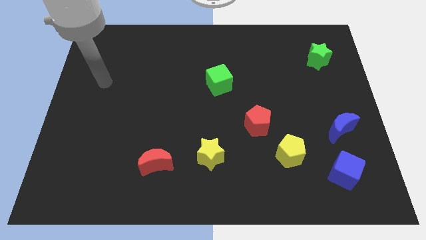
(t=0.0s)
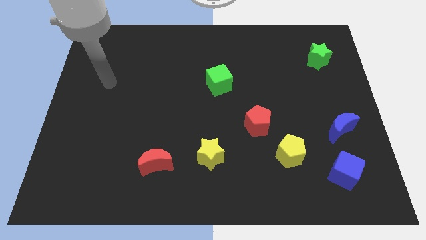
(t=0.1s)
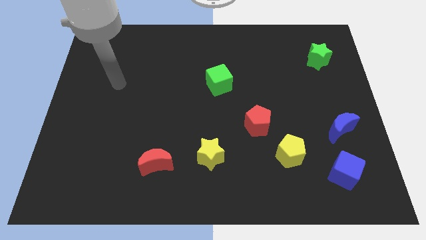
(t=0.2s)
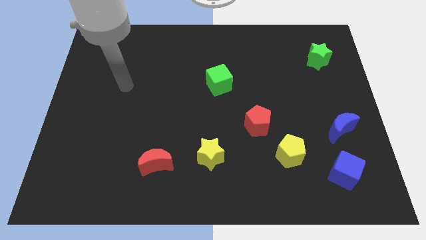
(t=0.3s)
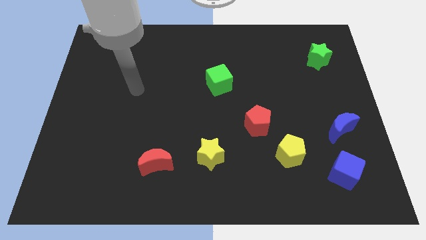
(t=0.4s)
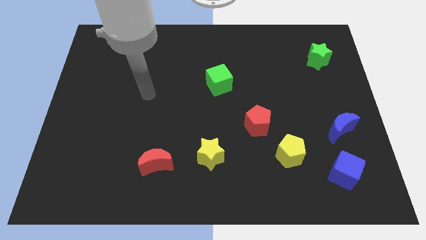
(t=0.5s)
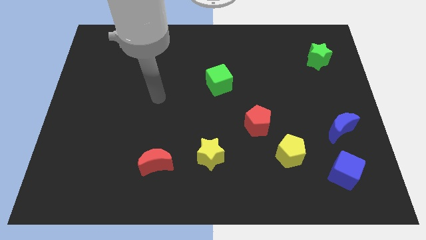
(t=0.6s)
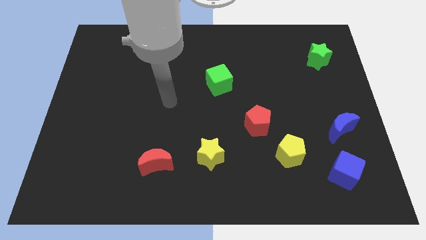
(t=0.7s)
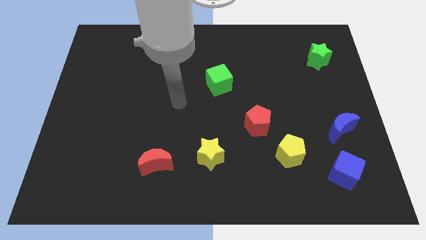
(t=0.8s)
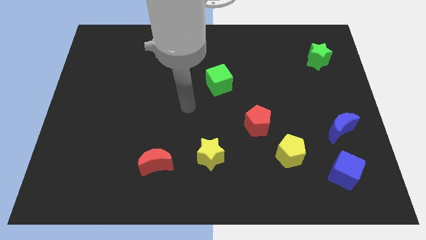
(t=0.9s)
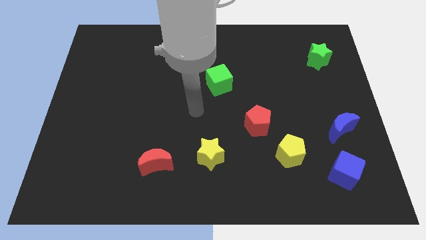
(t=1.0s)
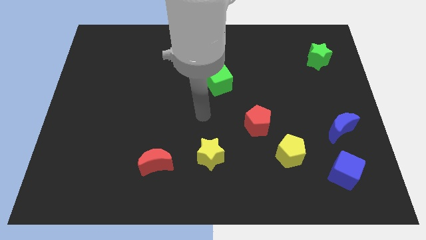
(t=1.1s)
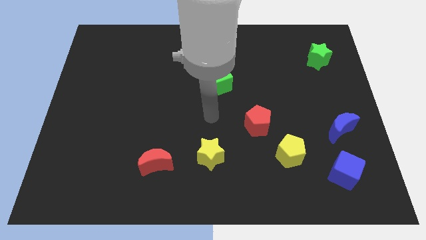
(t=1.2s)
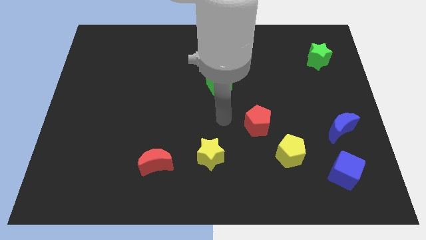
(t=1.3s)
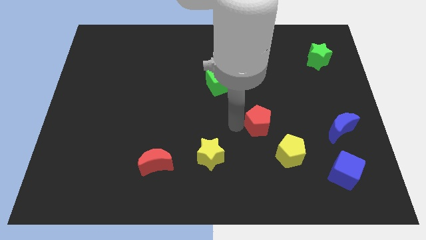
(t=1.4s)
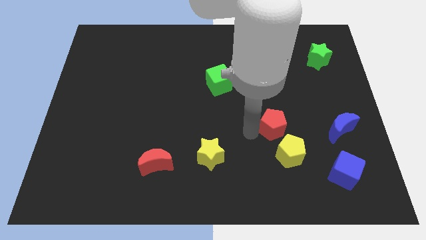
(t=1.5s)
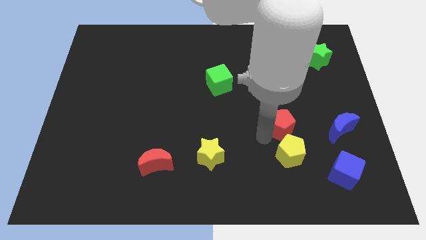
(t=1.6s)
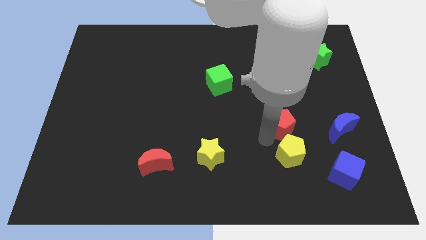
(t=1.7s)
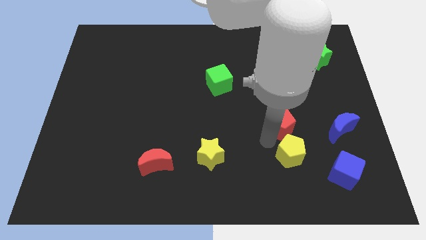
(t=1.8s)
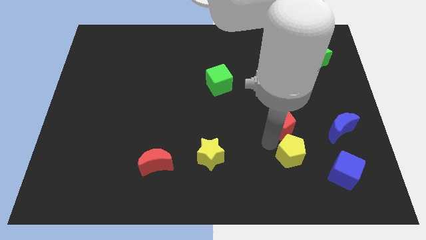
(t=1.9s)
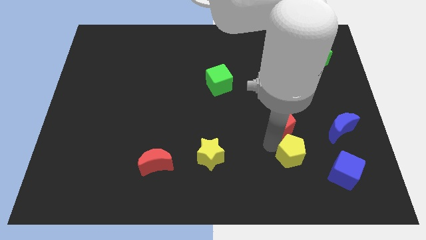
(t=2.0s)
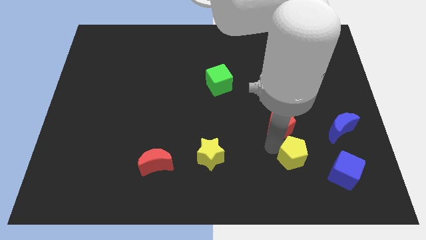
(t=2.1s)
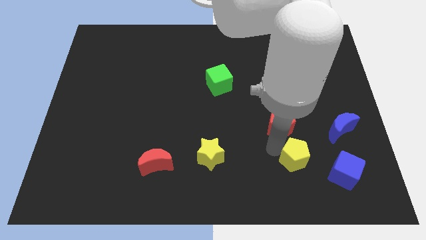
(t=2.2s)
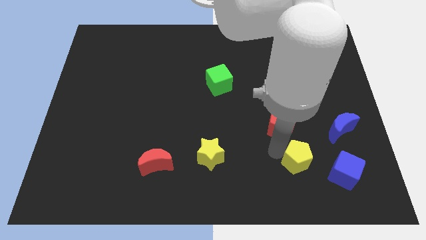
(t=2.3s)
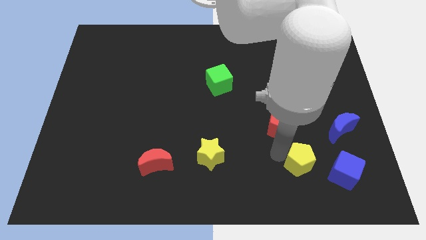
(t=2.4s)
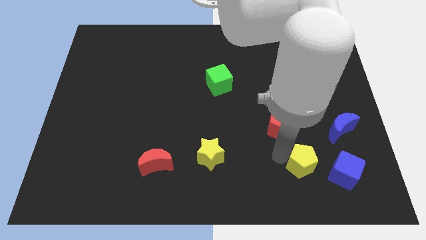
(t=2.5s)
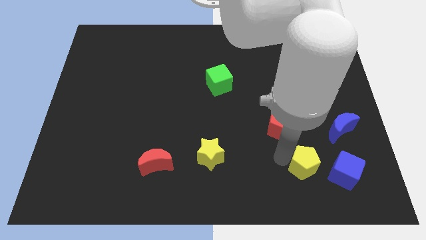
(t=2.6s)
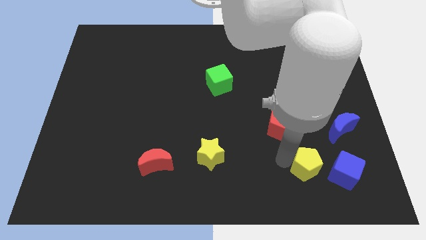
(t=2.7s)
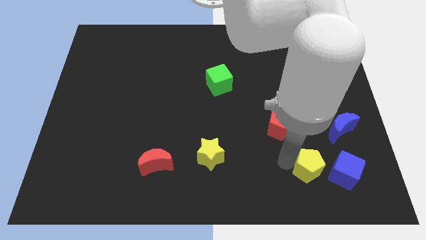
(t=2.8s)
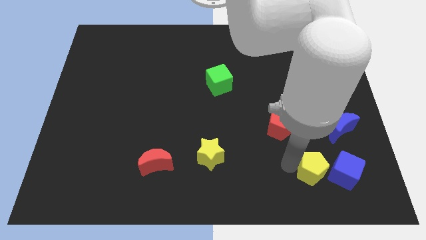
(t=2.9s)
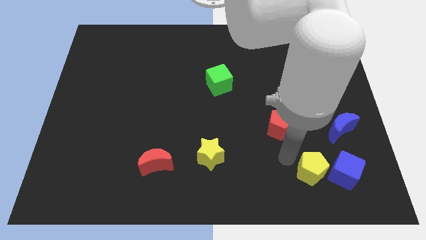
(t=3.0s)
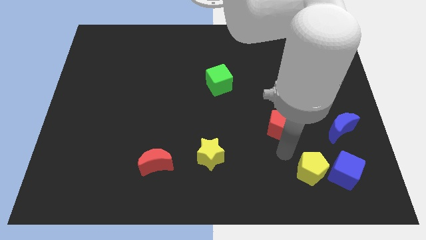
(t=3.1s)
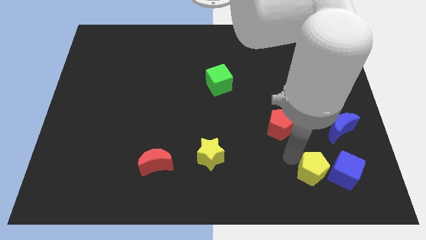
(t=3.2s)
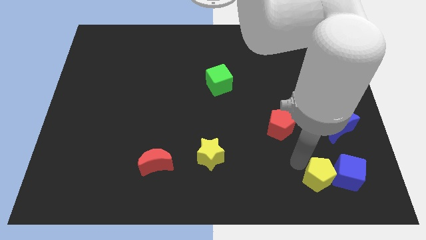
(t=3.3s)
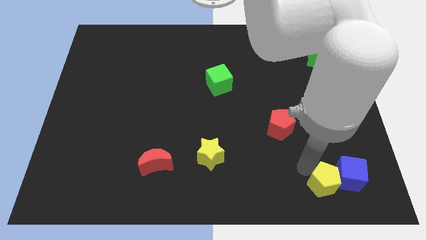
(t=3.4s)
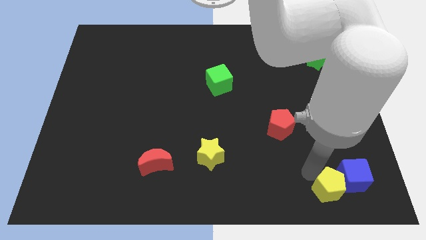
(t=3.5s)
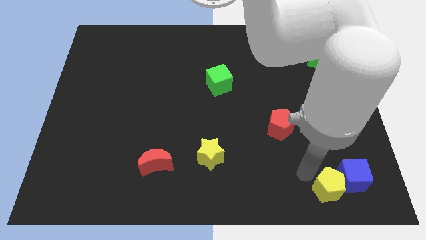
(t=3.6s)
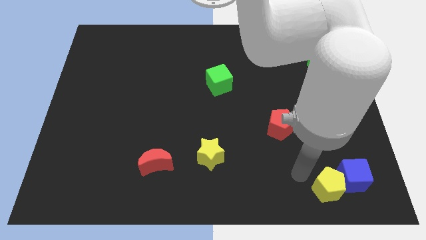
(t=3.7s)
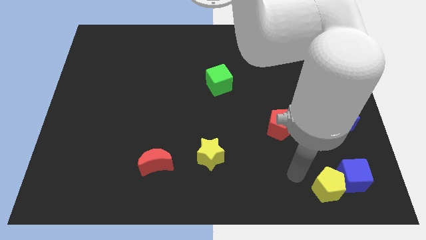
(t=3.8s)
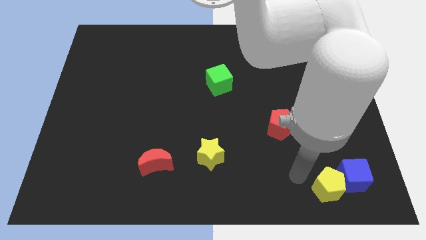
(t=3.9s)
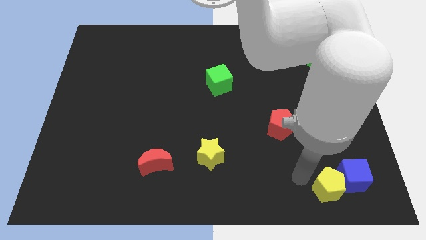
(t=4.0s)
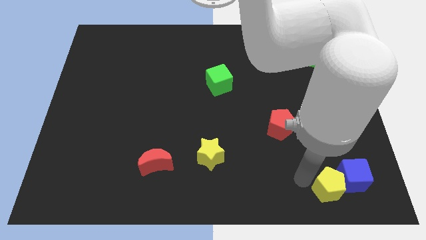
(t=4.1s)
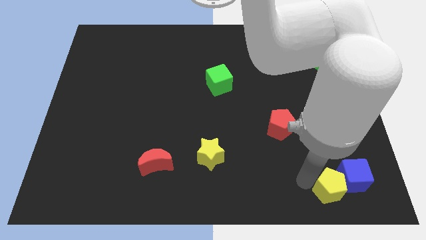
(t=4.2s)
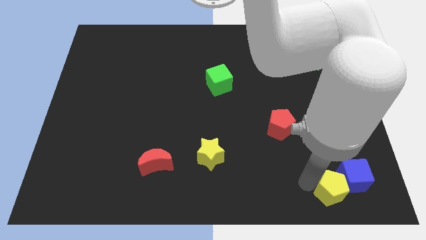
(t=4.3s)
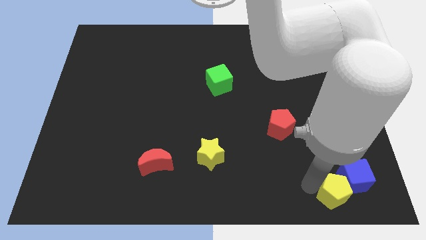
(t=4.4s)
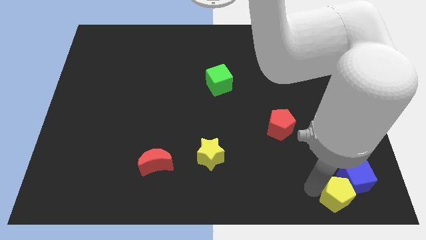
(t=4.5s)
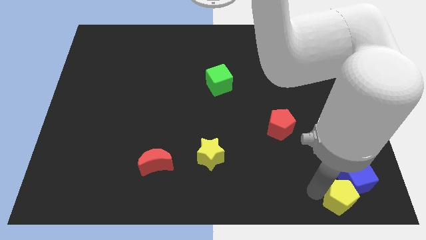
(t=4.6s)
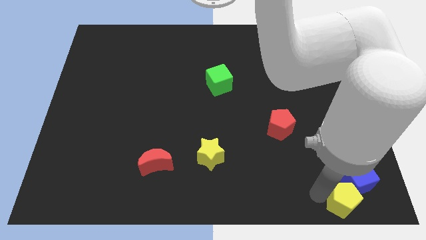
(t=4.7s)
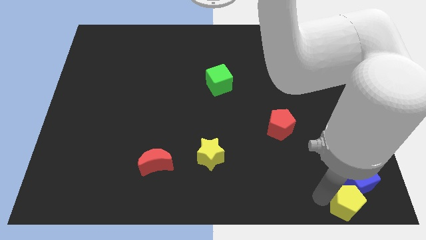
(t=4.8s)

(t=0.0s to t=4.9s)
slide the yellow pentagon to the lower right corner

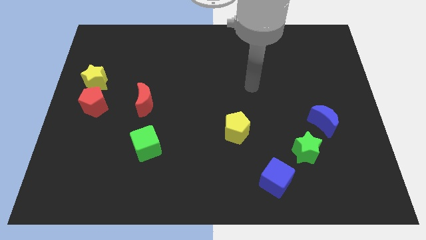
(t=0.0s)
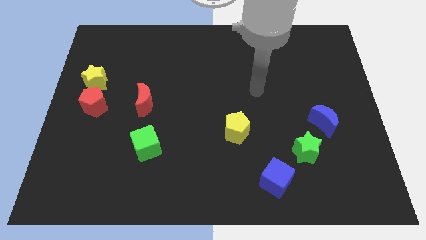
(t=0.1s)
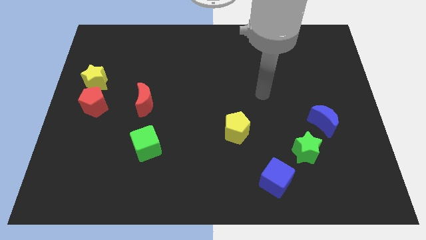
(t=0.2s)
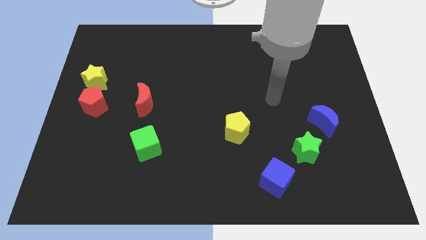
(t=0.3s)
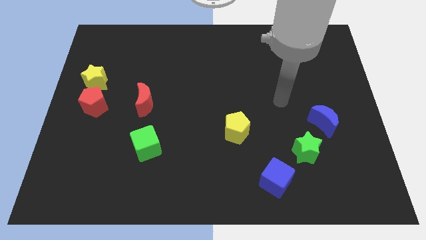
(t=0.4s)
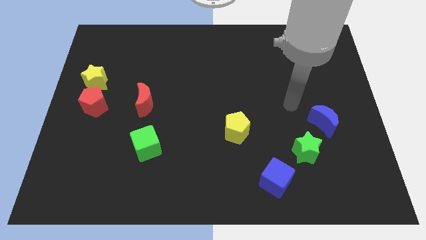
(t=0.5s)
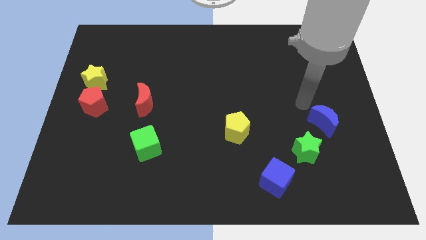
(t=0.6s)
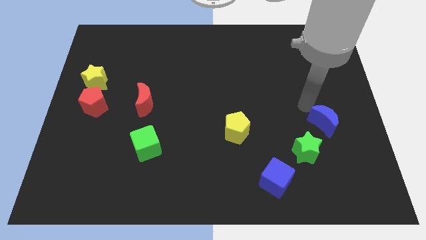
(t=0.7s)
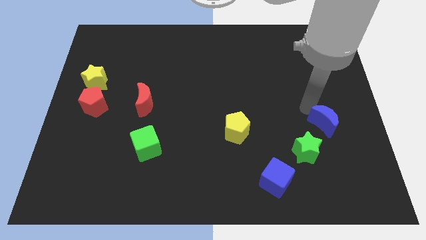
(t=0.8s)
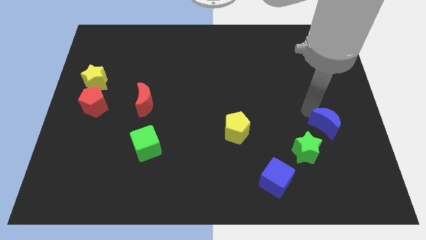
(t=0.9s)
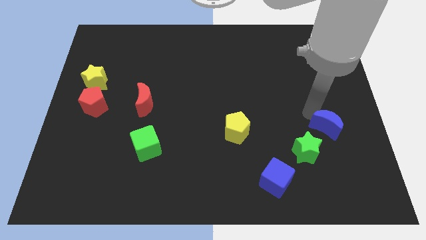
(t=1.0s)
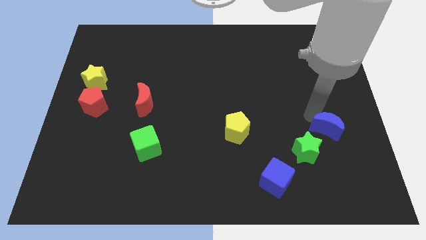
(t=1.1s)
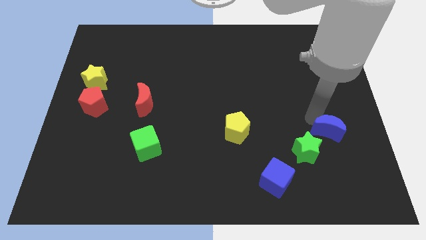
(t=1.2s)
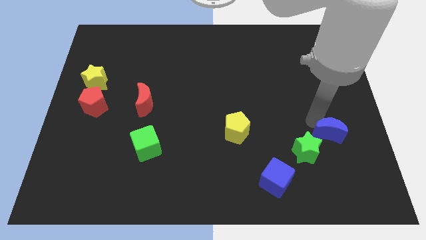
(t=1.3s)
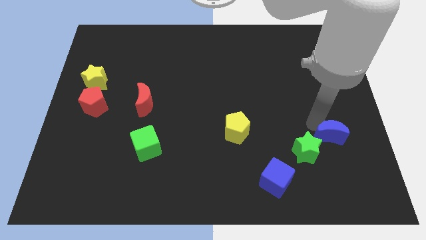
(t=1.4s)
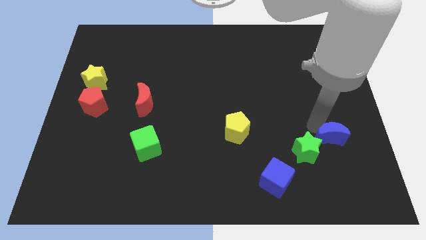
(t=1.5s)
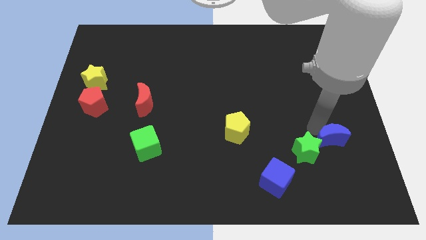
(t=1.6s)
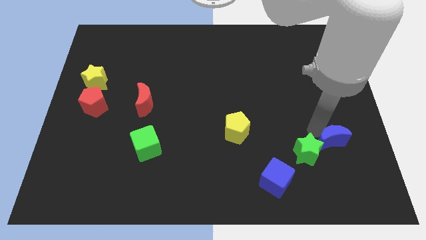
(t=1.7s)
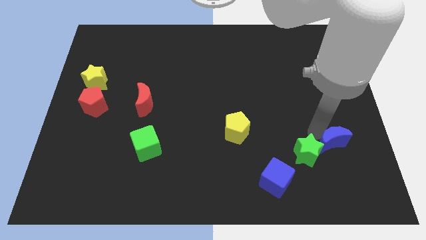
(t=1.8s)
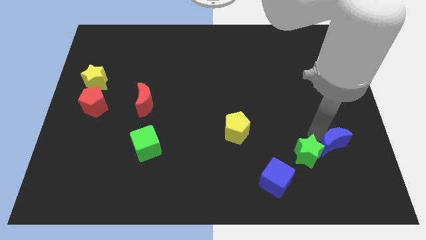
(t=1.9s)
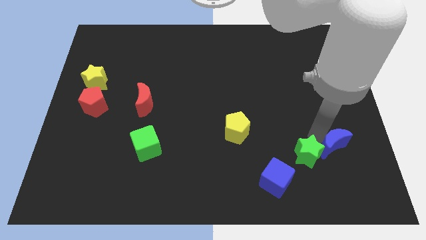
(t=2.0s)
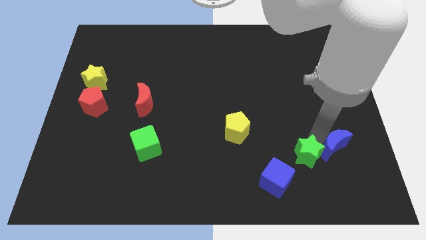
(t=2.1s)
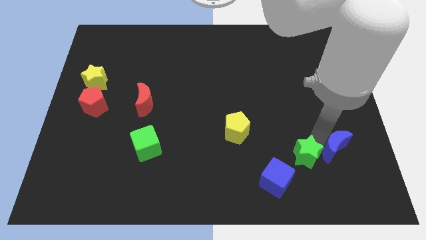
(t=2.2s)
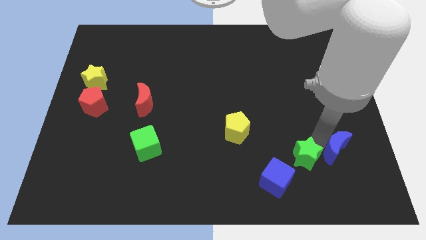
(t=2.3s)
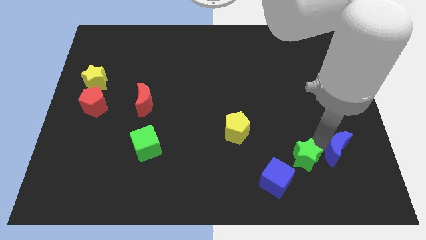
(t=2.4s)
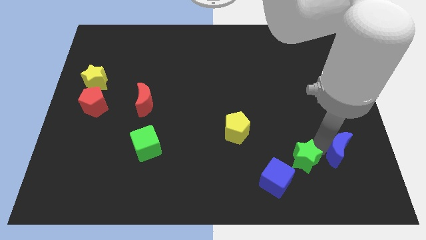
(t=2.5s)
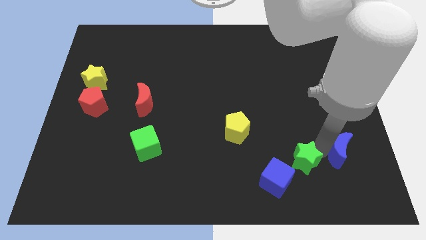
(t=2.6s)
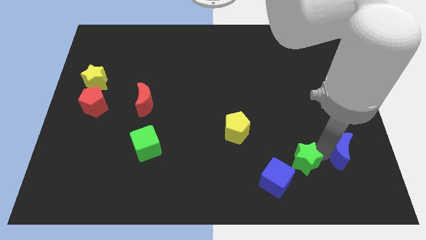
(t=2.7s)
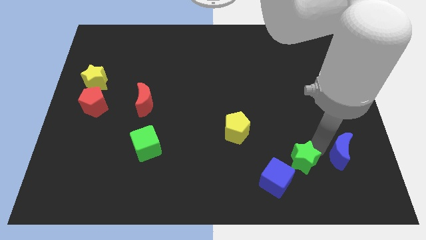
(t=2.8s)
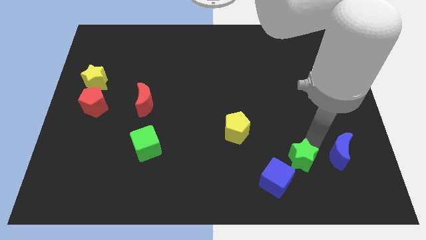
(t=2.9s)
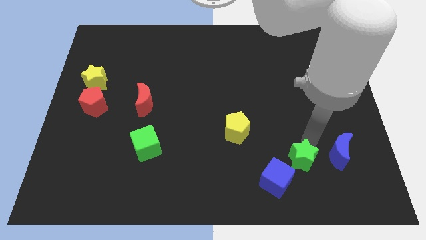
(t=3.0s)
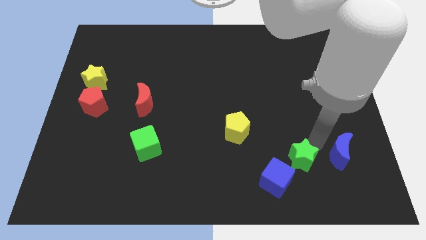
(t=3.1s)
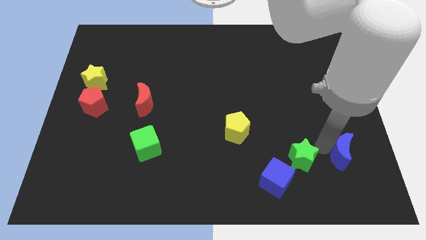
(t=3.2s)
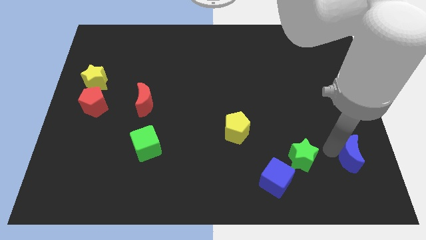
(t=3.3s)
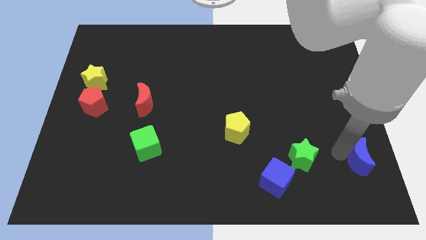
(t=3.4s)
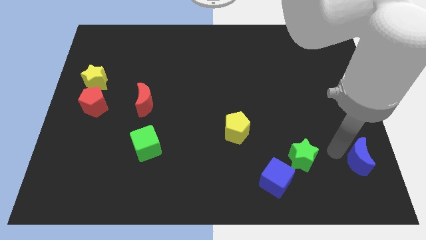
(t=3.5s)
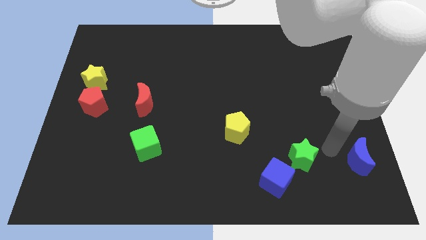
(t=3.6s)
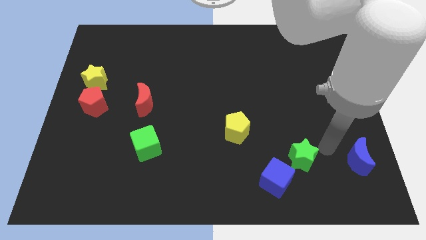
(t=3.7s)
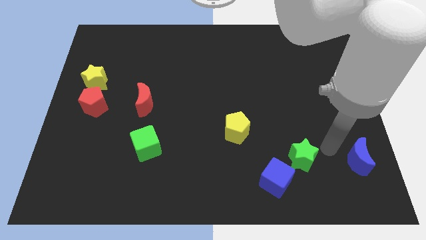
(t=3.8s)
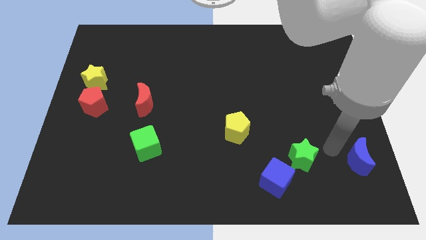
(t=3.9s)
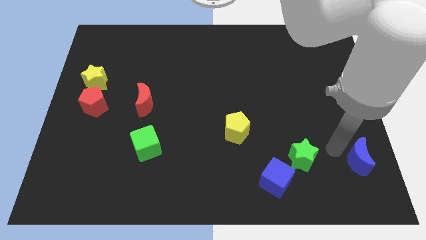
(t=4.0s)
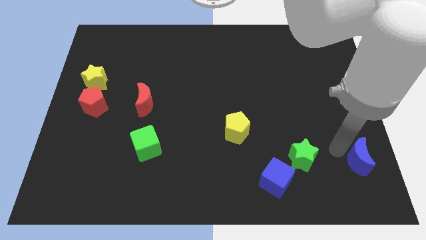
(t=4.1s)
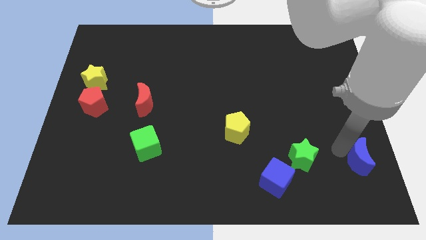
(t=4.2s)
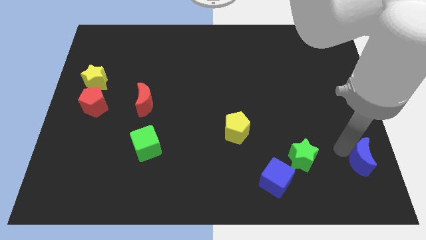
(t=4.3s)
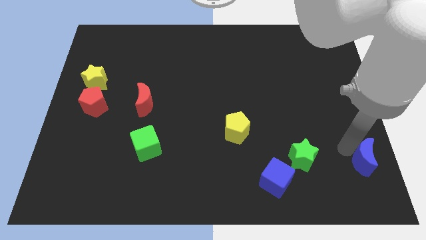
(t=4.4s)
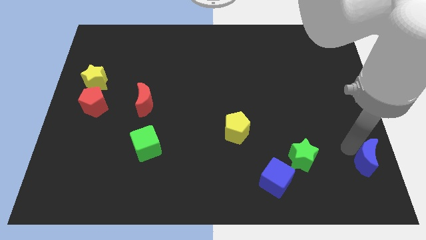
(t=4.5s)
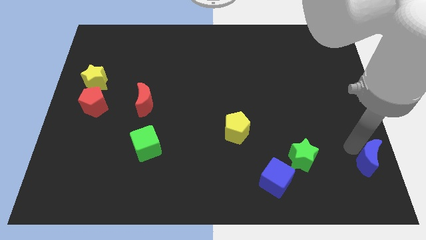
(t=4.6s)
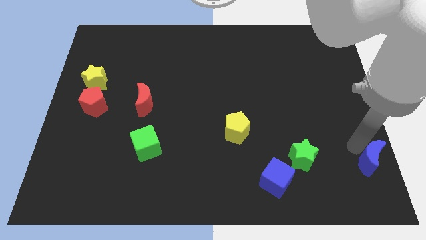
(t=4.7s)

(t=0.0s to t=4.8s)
slide the blue moon to the bottom right
